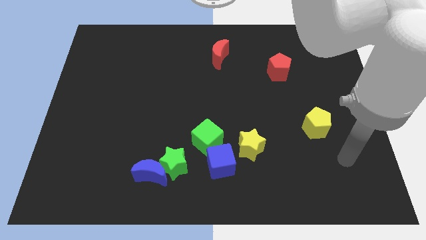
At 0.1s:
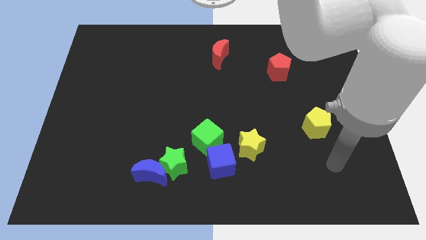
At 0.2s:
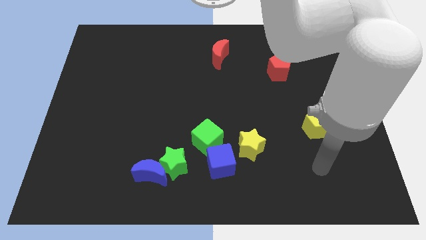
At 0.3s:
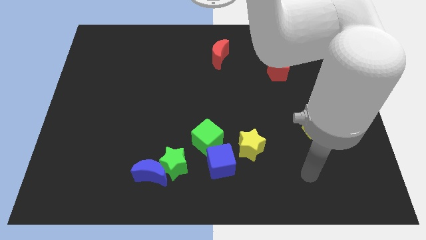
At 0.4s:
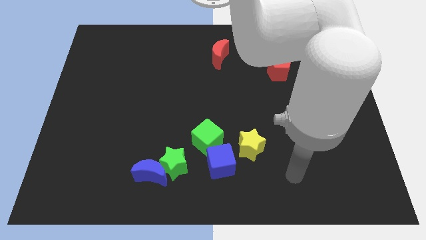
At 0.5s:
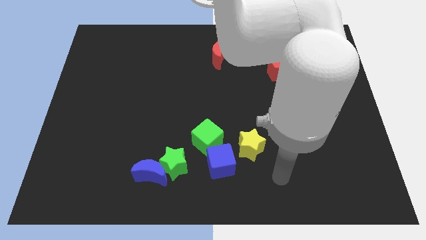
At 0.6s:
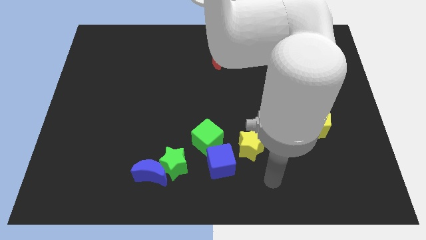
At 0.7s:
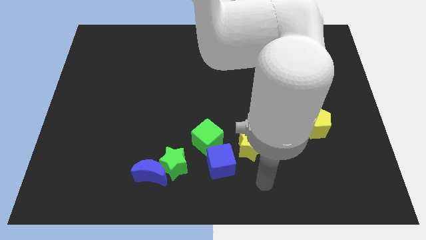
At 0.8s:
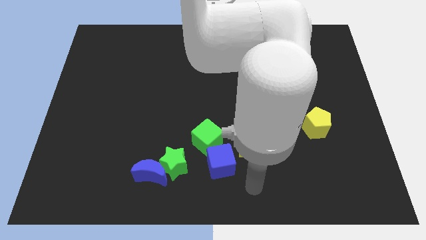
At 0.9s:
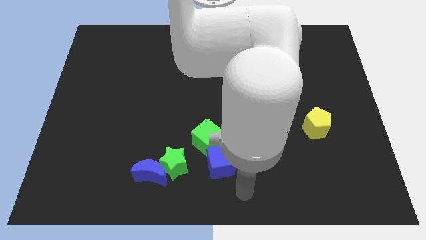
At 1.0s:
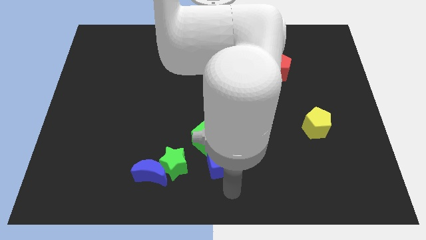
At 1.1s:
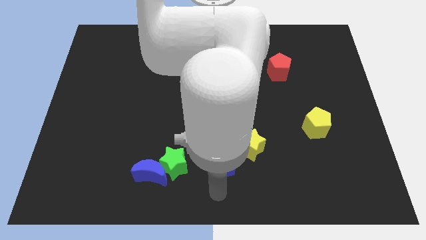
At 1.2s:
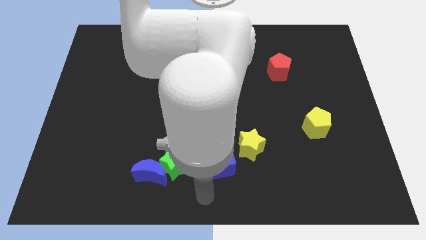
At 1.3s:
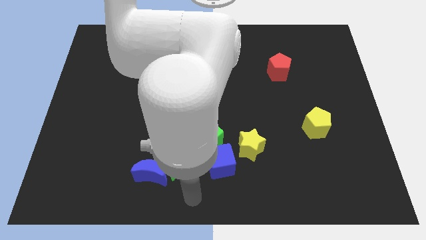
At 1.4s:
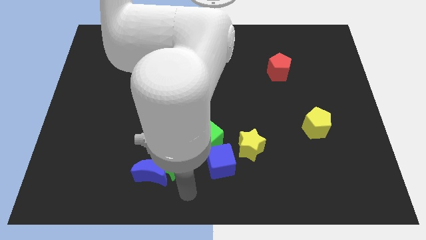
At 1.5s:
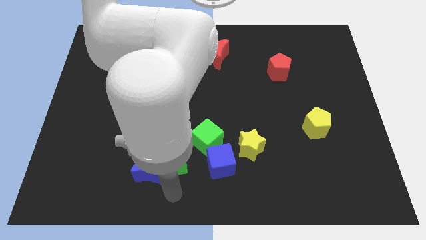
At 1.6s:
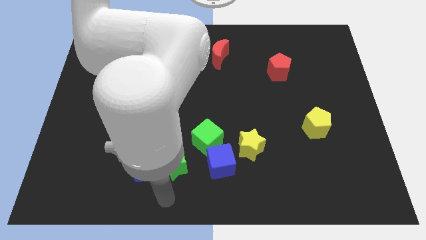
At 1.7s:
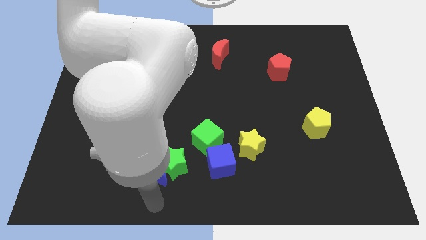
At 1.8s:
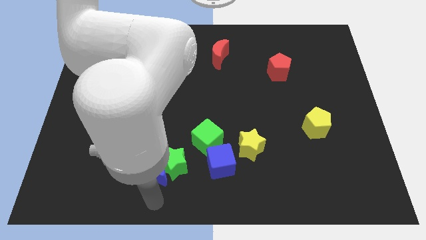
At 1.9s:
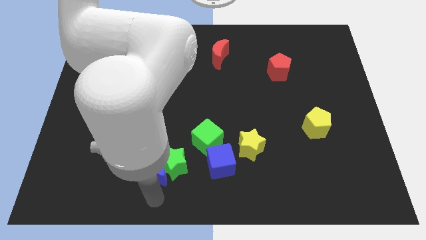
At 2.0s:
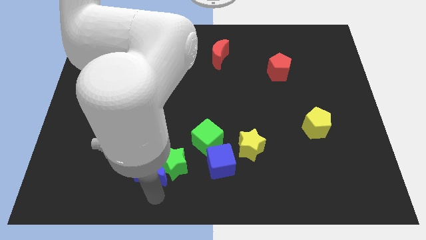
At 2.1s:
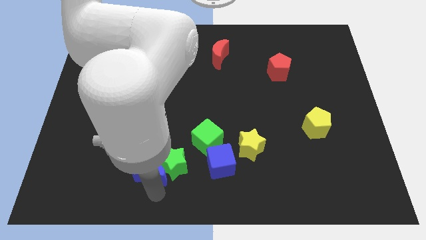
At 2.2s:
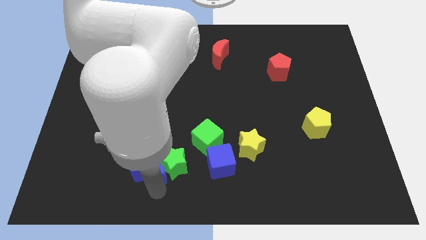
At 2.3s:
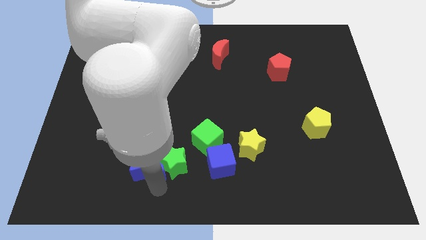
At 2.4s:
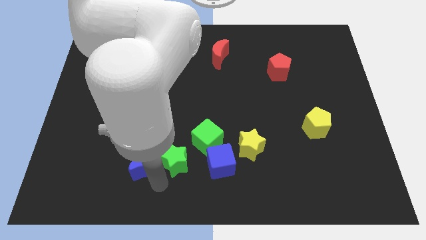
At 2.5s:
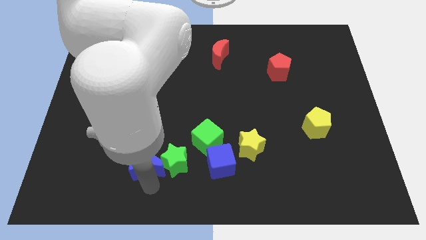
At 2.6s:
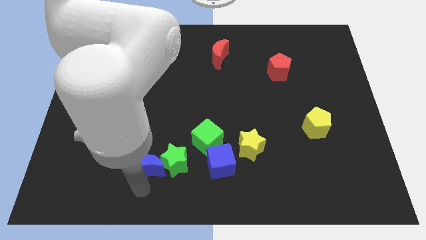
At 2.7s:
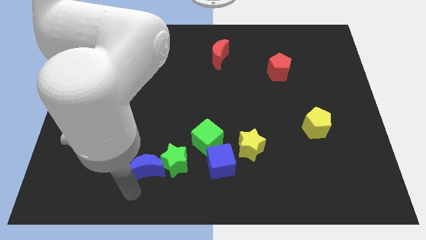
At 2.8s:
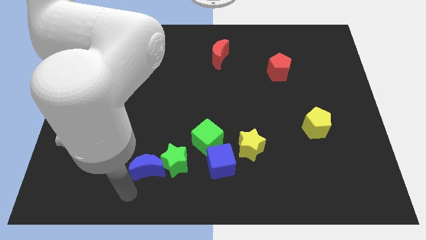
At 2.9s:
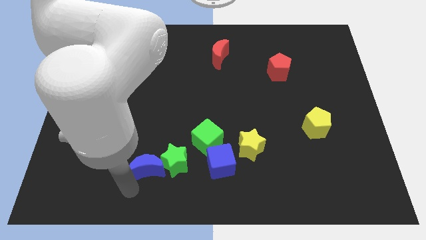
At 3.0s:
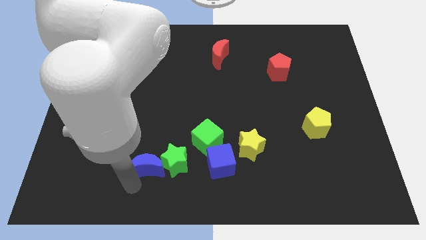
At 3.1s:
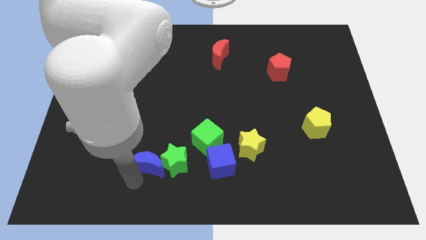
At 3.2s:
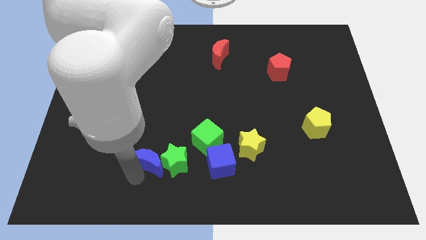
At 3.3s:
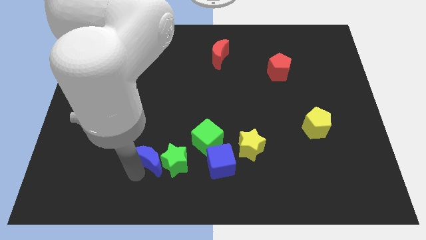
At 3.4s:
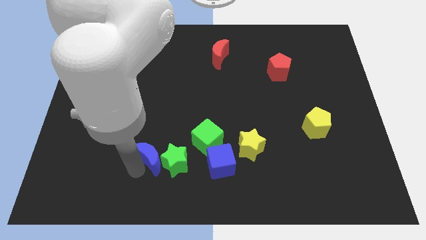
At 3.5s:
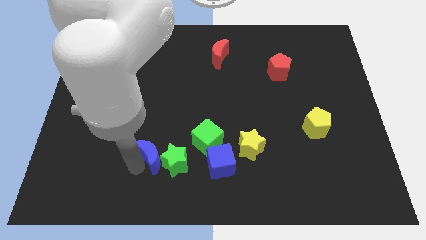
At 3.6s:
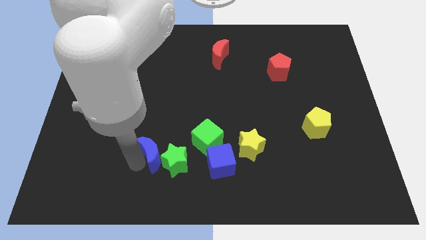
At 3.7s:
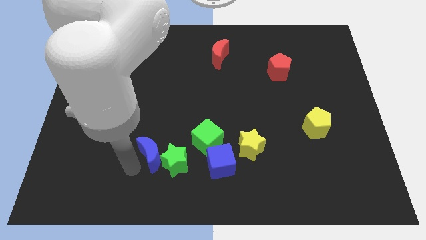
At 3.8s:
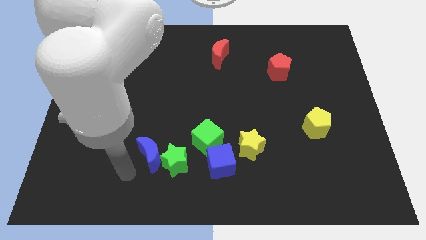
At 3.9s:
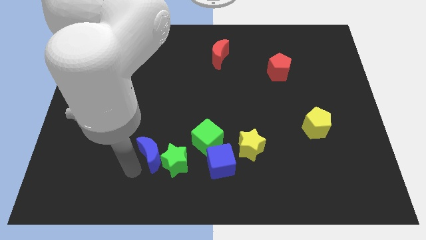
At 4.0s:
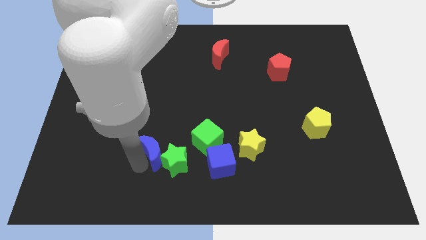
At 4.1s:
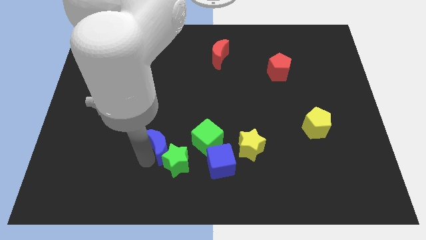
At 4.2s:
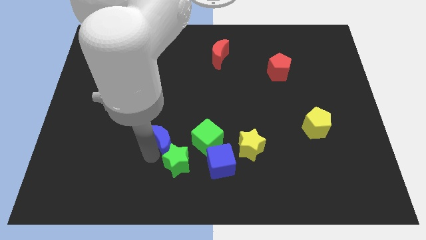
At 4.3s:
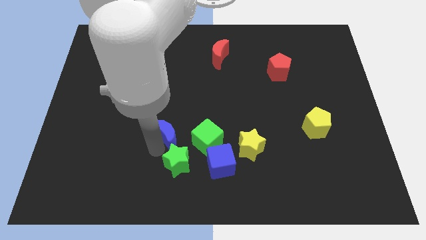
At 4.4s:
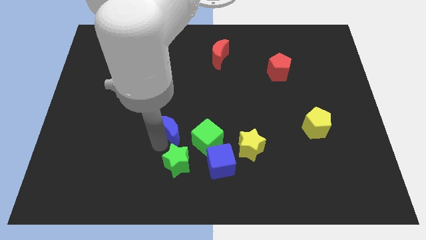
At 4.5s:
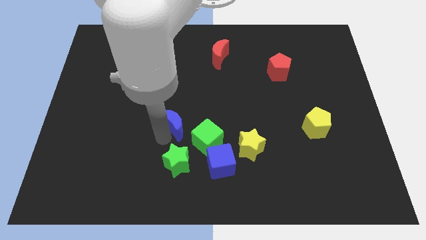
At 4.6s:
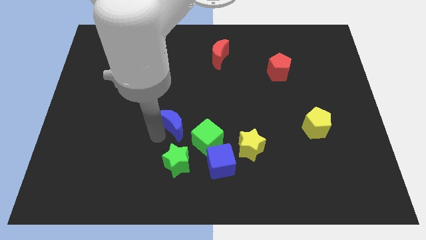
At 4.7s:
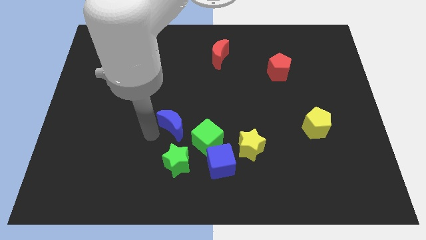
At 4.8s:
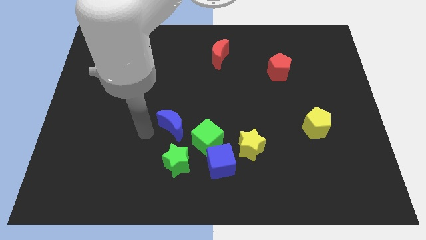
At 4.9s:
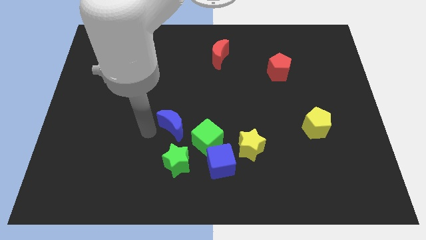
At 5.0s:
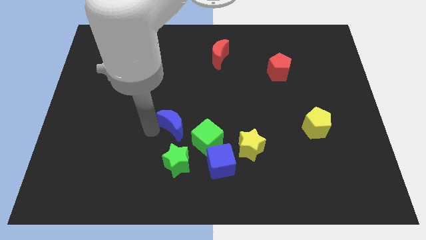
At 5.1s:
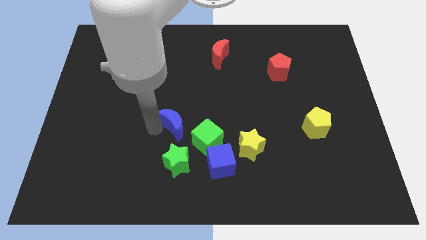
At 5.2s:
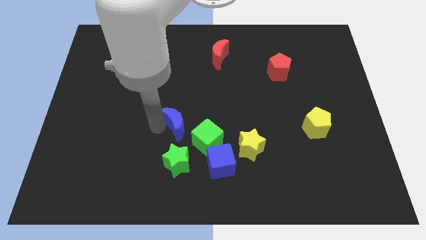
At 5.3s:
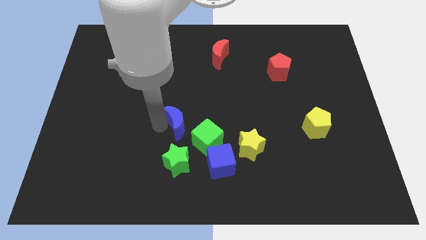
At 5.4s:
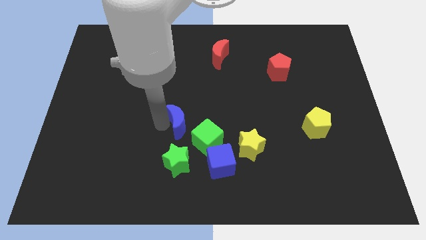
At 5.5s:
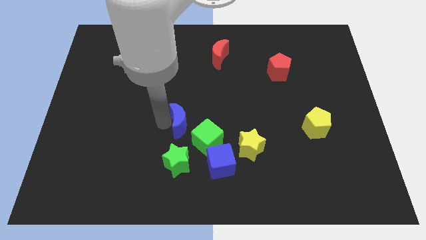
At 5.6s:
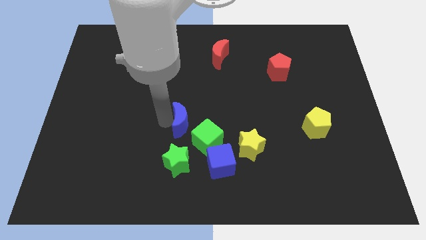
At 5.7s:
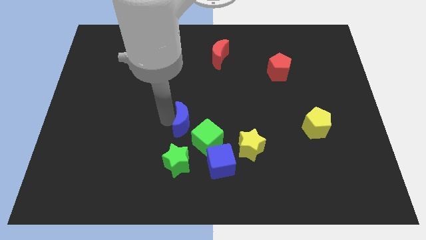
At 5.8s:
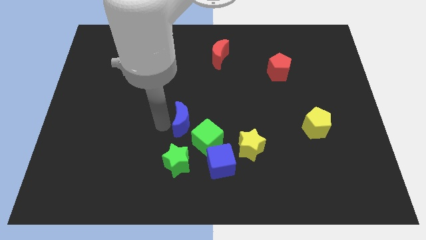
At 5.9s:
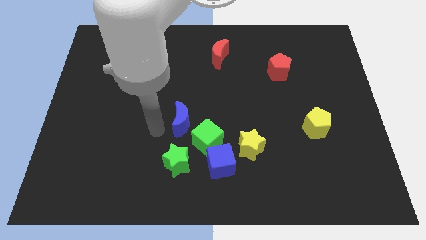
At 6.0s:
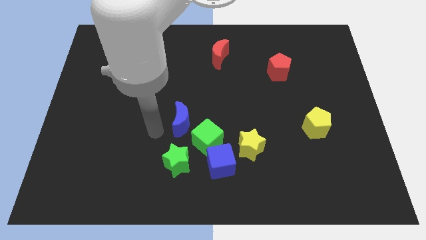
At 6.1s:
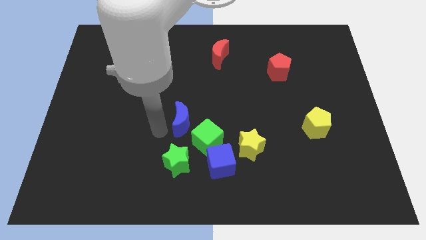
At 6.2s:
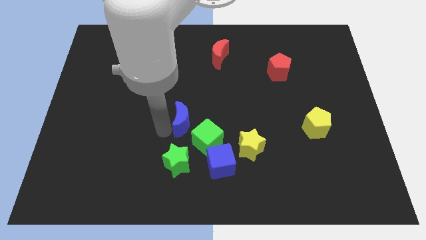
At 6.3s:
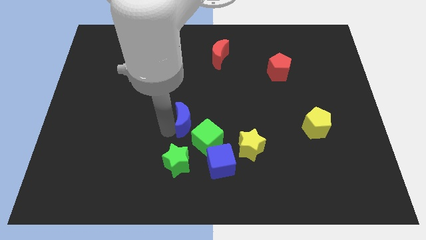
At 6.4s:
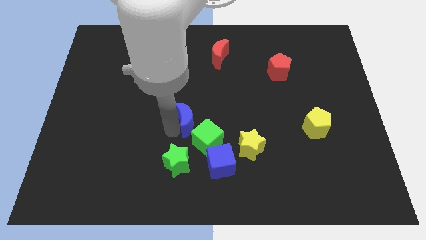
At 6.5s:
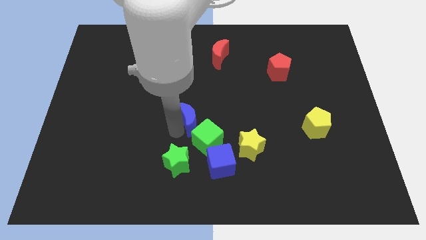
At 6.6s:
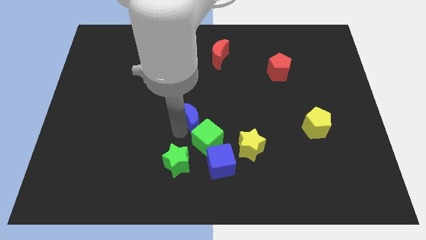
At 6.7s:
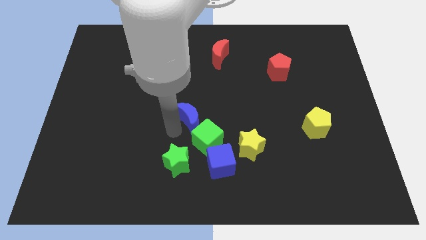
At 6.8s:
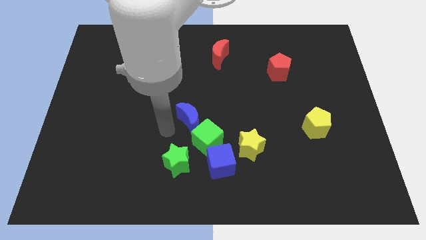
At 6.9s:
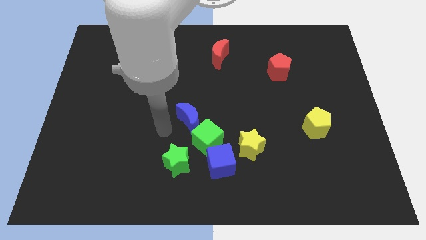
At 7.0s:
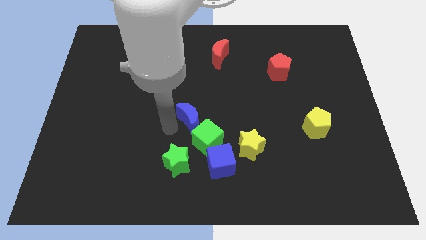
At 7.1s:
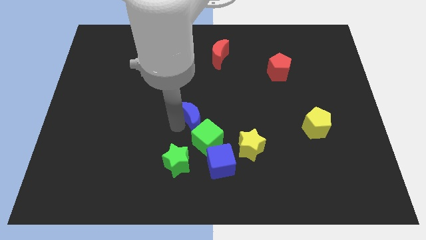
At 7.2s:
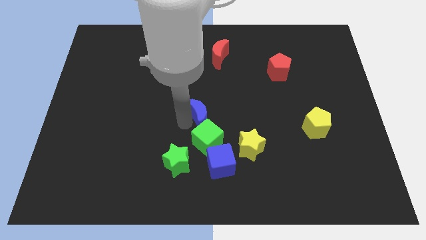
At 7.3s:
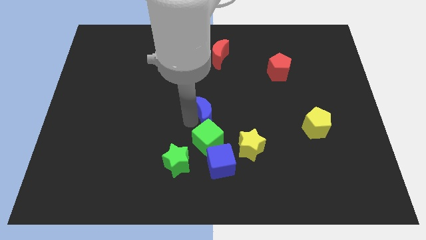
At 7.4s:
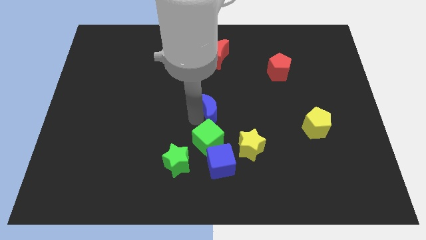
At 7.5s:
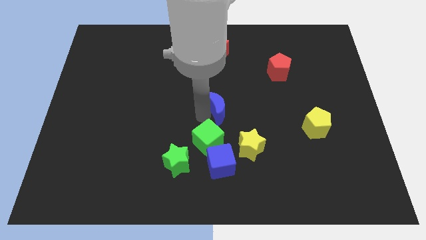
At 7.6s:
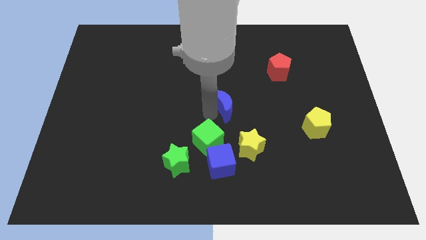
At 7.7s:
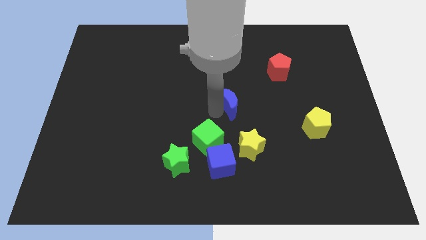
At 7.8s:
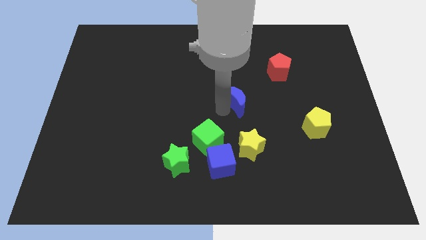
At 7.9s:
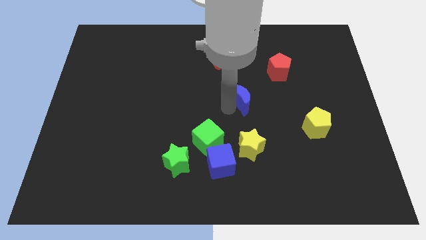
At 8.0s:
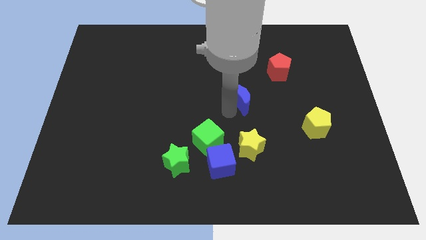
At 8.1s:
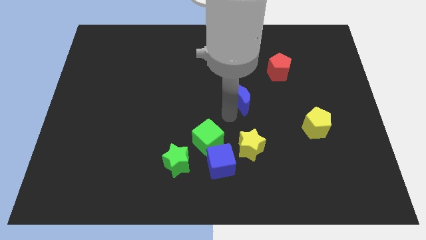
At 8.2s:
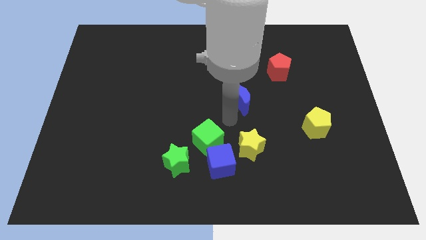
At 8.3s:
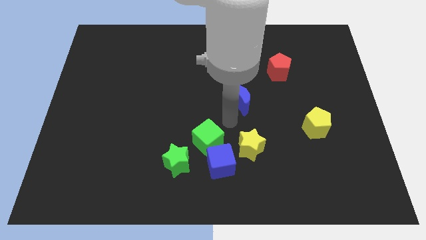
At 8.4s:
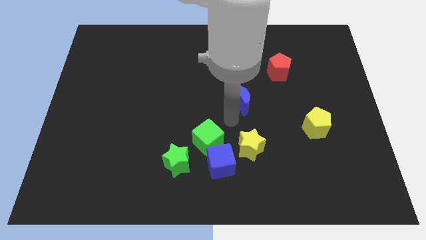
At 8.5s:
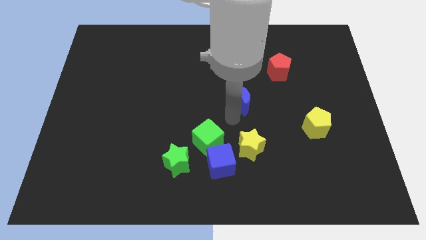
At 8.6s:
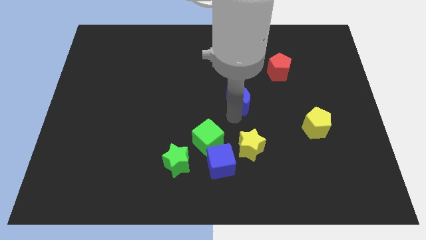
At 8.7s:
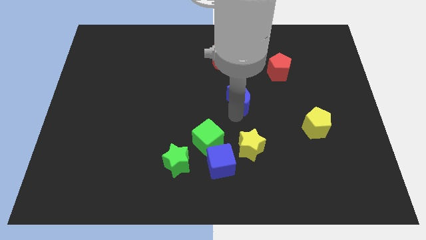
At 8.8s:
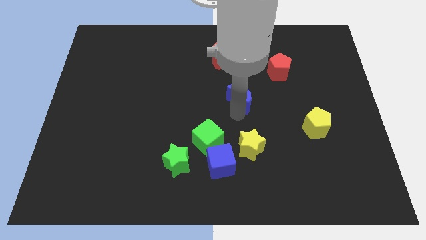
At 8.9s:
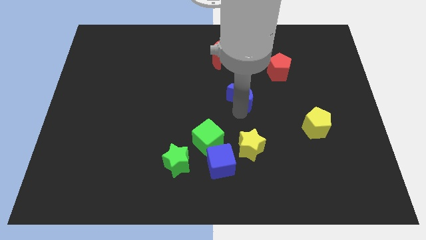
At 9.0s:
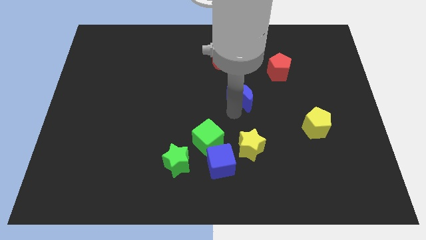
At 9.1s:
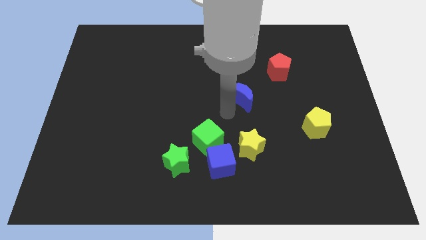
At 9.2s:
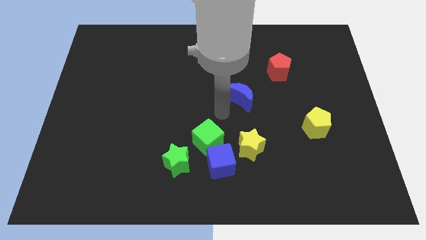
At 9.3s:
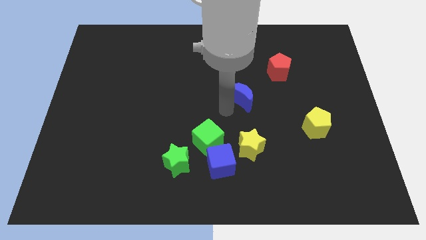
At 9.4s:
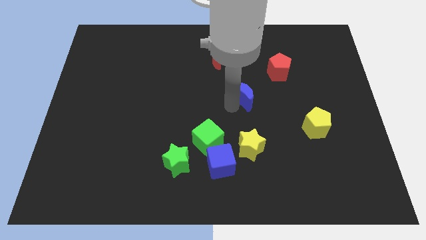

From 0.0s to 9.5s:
put the blue moon diagonally down and to the left of the red pentagon
